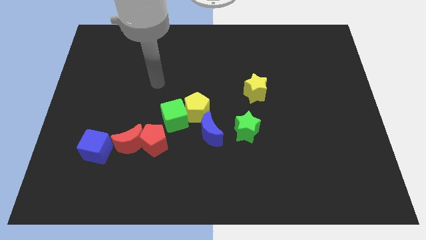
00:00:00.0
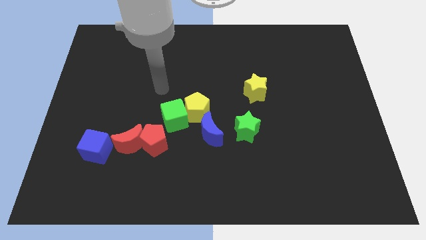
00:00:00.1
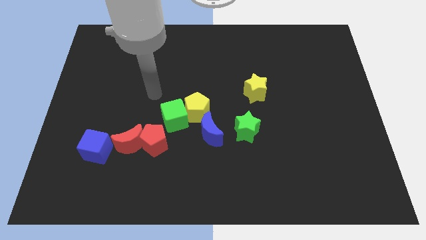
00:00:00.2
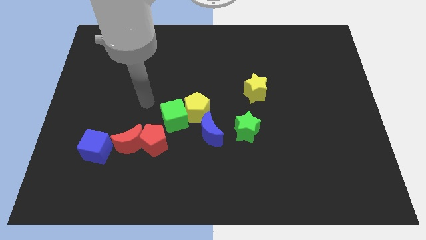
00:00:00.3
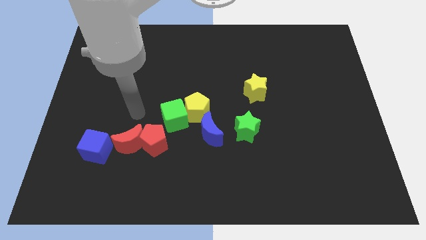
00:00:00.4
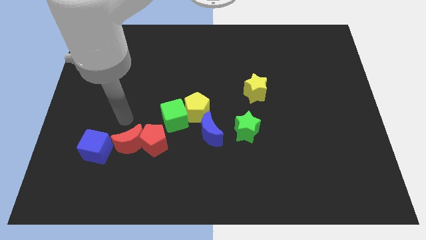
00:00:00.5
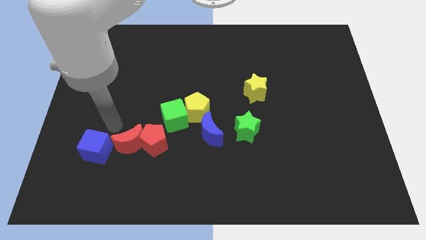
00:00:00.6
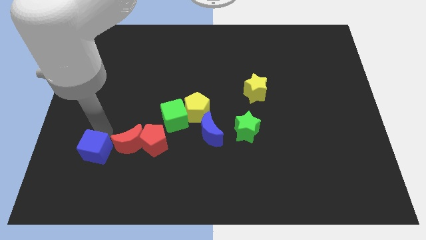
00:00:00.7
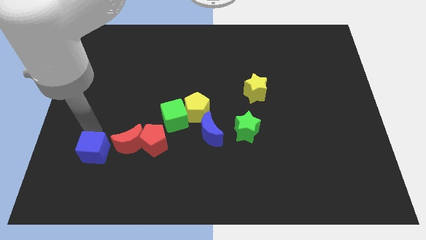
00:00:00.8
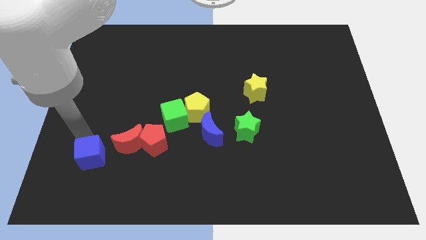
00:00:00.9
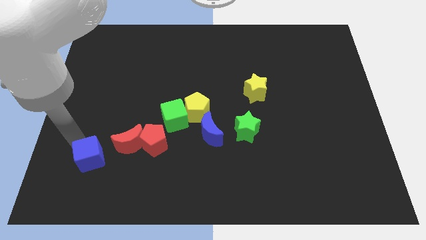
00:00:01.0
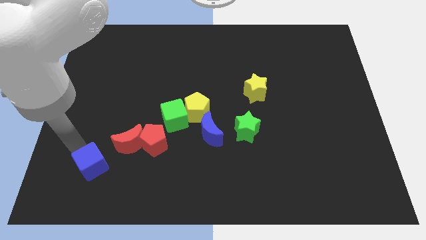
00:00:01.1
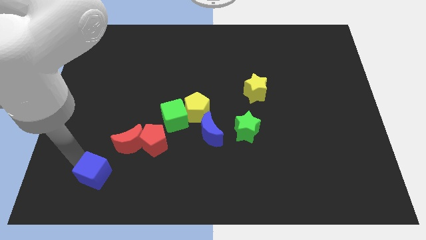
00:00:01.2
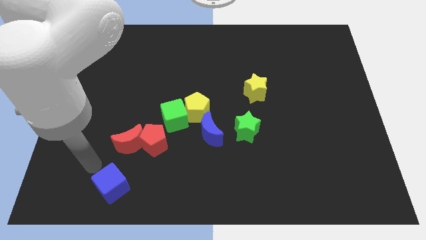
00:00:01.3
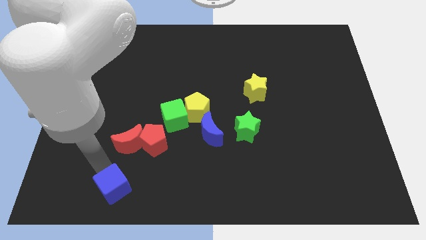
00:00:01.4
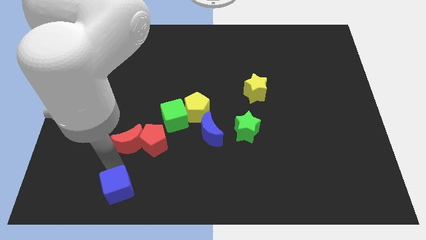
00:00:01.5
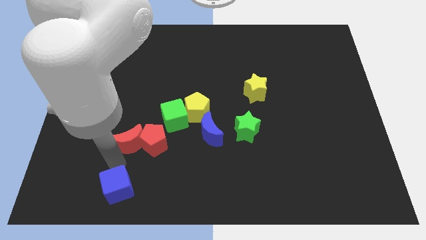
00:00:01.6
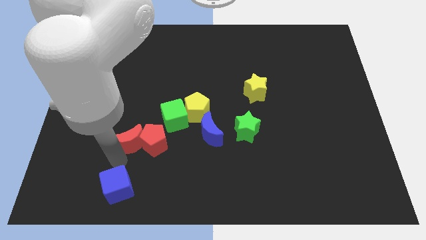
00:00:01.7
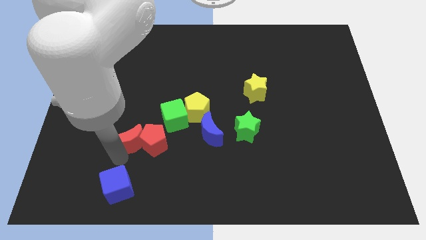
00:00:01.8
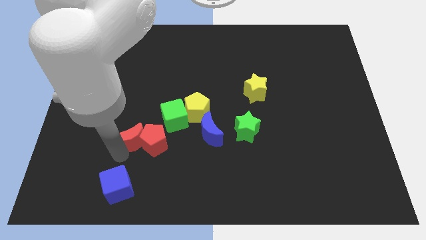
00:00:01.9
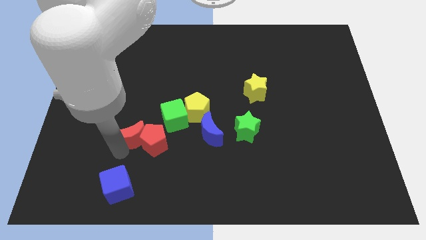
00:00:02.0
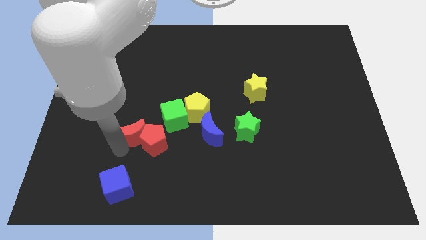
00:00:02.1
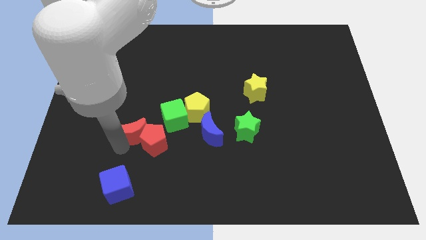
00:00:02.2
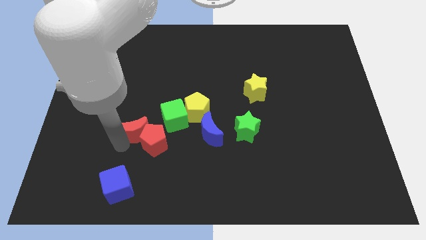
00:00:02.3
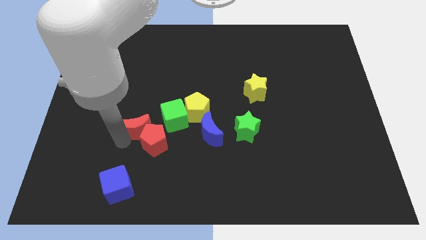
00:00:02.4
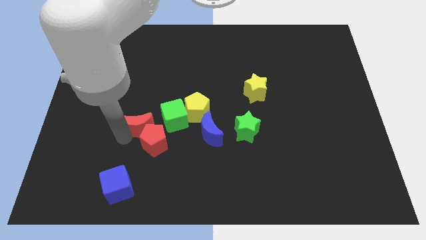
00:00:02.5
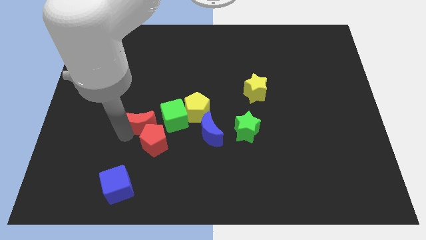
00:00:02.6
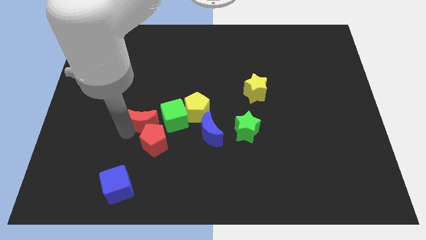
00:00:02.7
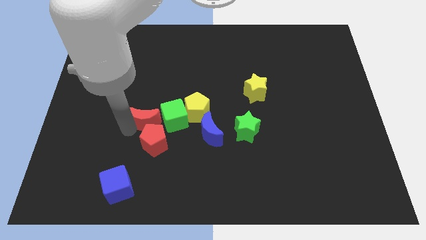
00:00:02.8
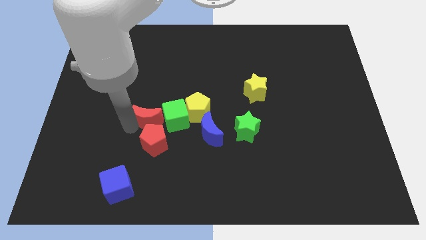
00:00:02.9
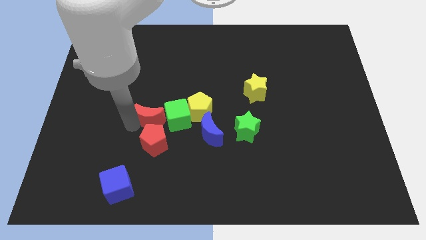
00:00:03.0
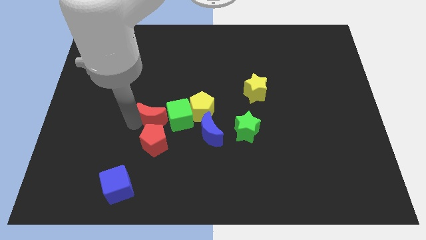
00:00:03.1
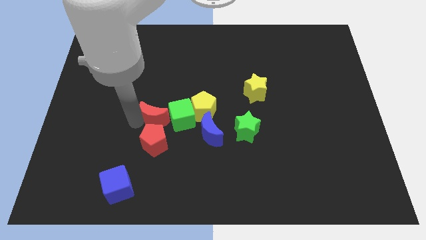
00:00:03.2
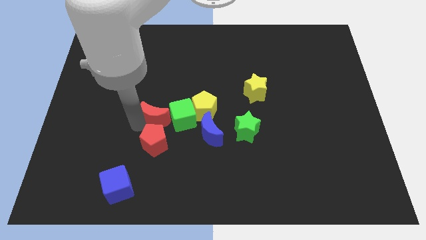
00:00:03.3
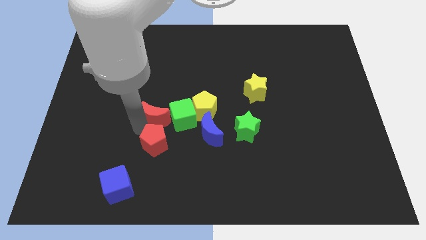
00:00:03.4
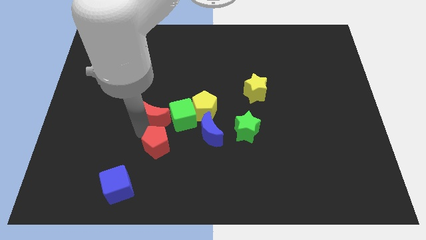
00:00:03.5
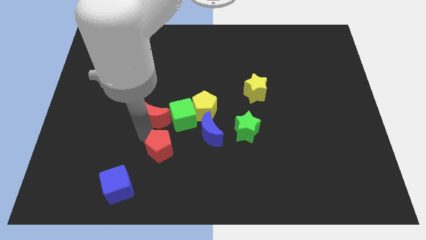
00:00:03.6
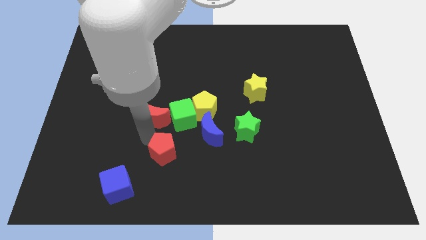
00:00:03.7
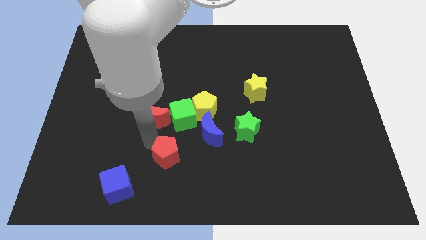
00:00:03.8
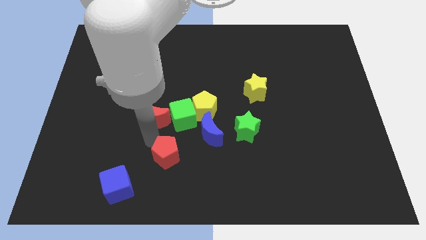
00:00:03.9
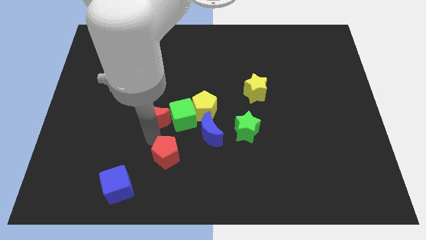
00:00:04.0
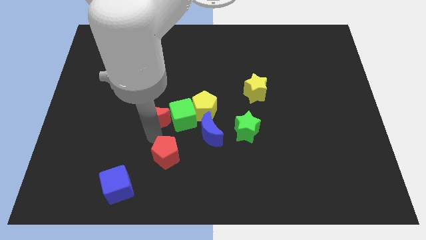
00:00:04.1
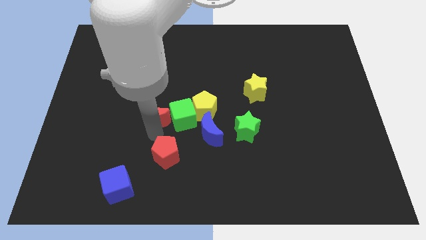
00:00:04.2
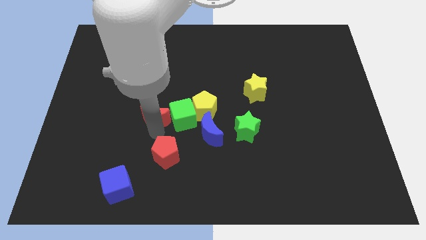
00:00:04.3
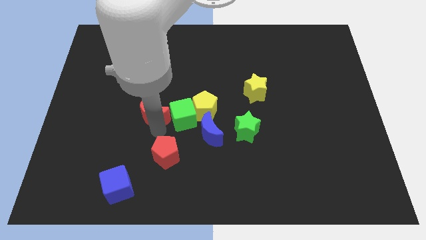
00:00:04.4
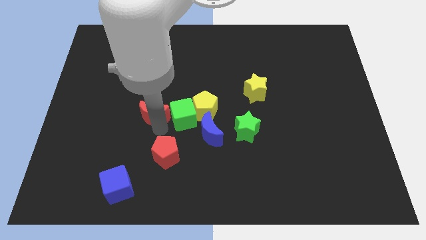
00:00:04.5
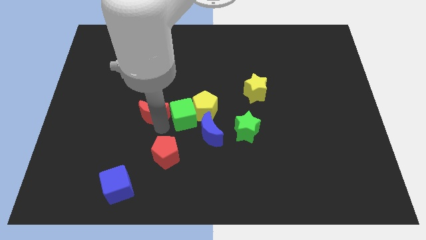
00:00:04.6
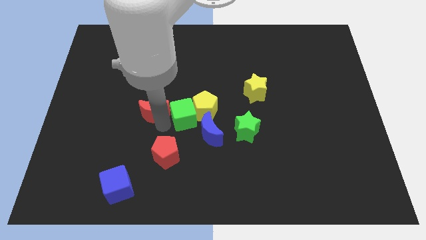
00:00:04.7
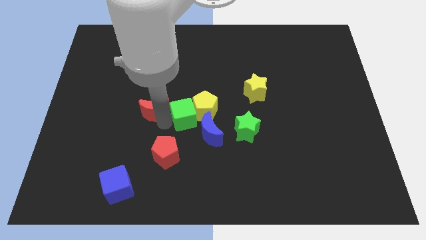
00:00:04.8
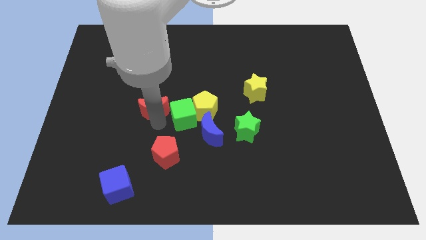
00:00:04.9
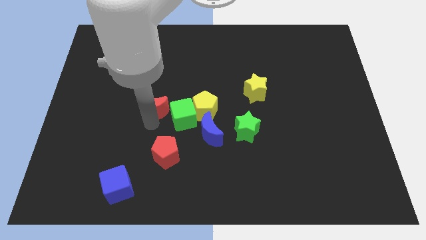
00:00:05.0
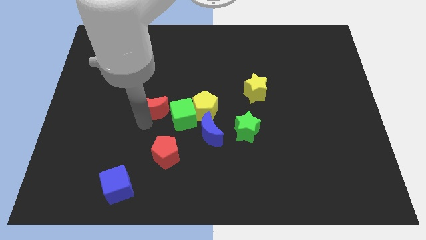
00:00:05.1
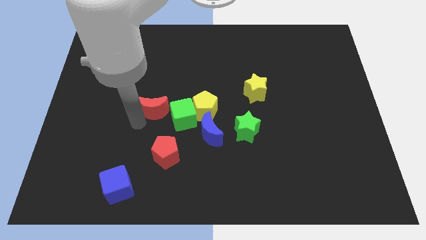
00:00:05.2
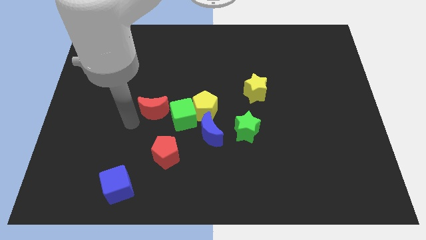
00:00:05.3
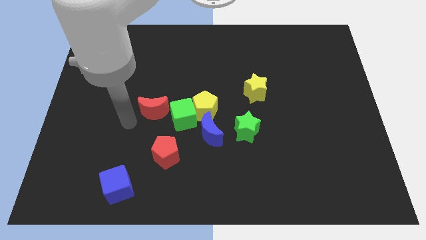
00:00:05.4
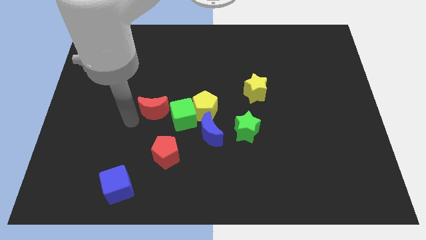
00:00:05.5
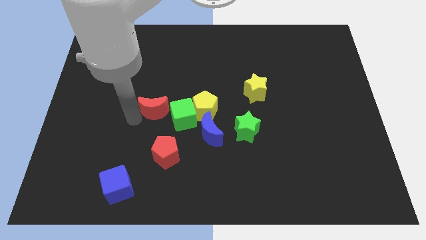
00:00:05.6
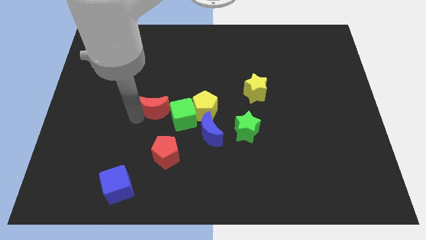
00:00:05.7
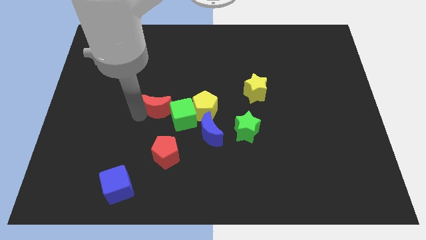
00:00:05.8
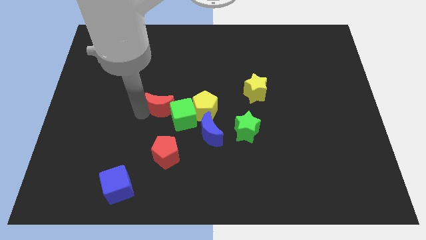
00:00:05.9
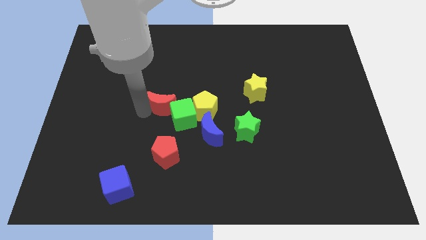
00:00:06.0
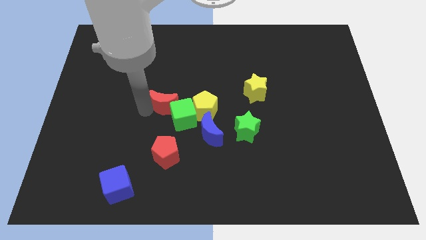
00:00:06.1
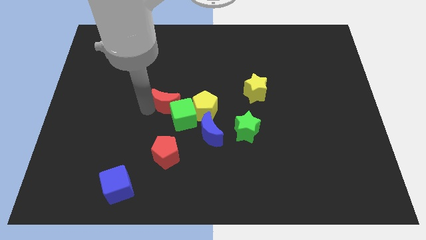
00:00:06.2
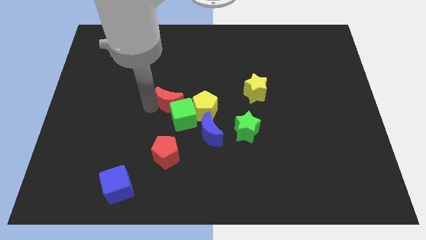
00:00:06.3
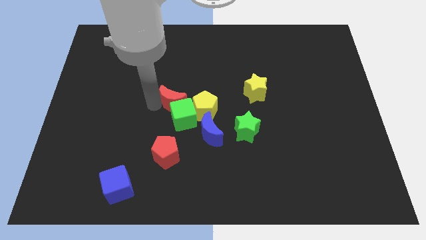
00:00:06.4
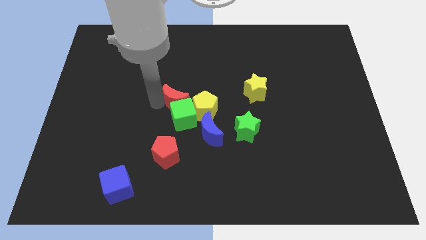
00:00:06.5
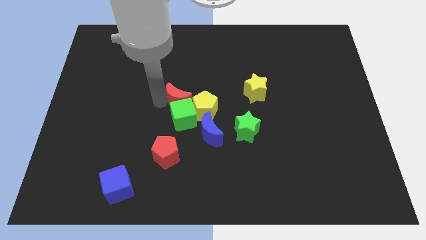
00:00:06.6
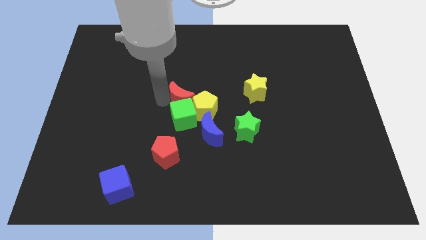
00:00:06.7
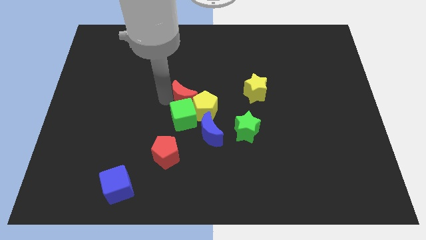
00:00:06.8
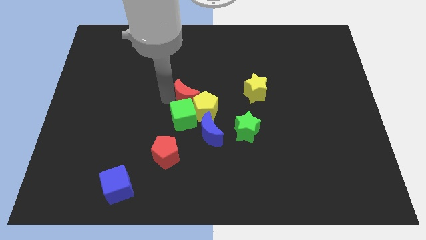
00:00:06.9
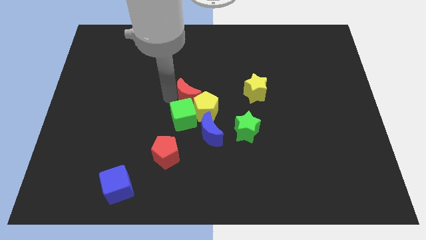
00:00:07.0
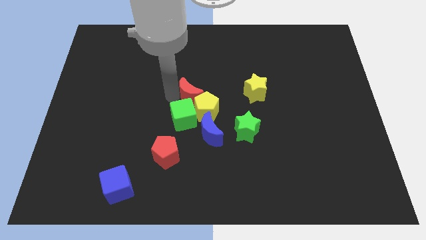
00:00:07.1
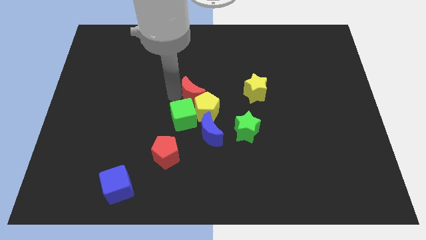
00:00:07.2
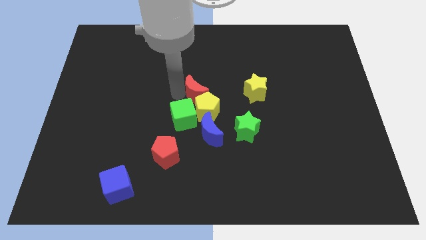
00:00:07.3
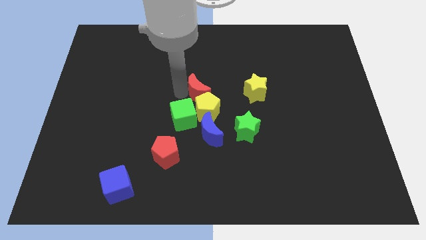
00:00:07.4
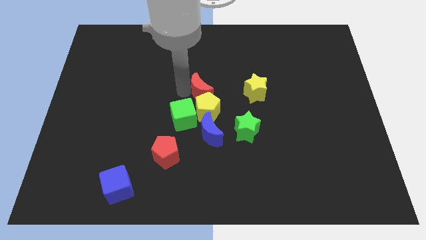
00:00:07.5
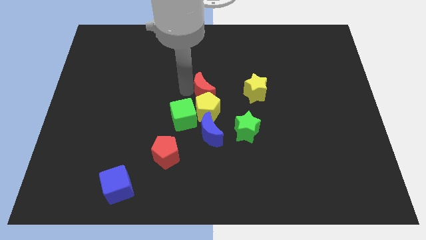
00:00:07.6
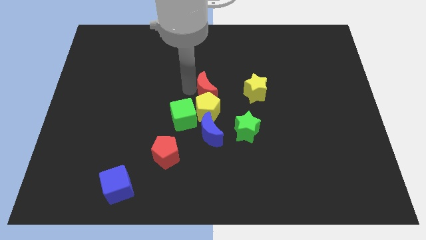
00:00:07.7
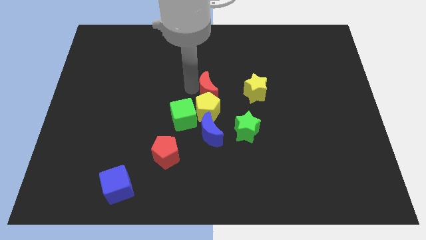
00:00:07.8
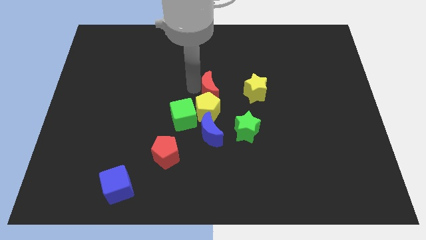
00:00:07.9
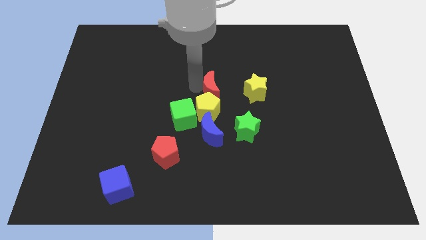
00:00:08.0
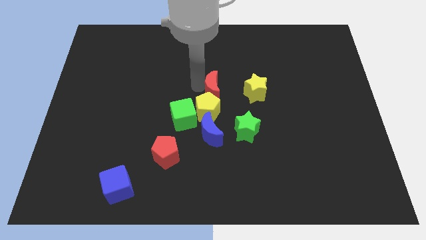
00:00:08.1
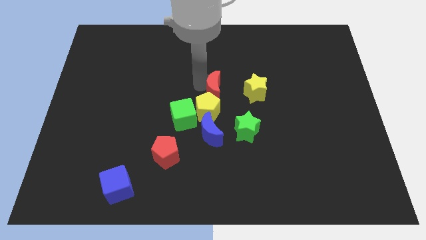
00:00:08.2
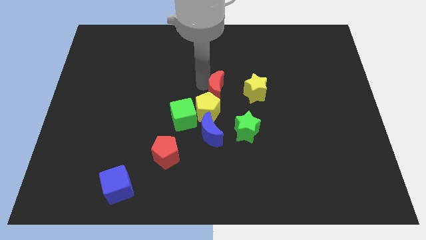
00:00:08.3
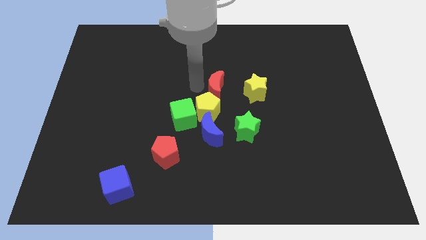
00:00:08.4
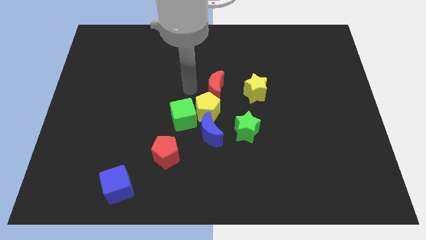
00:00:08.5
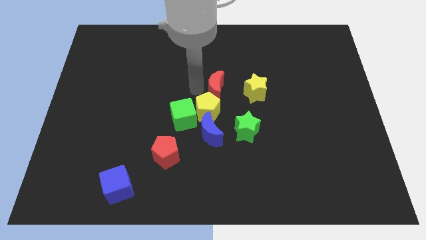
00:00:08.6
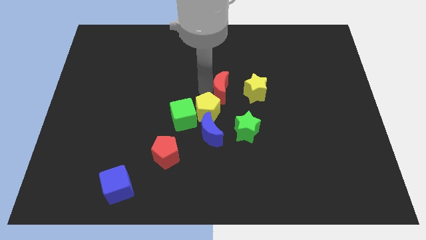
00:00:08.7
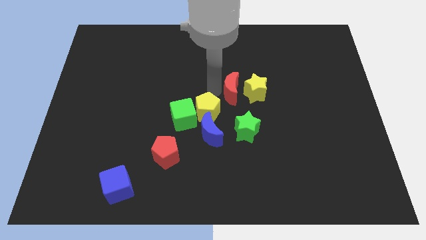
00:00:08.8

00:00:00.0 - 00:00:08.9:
move the red moon next to the yellow star
